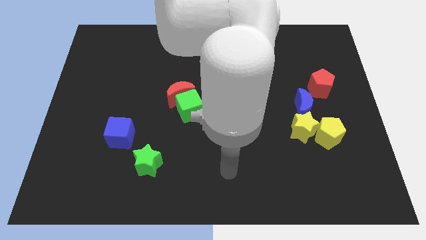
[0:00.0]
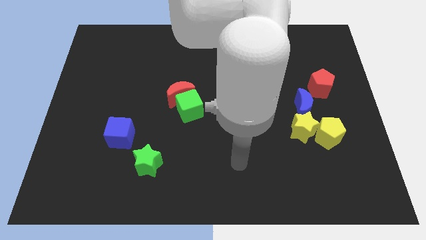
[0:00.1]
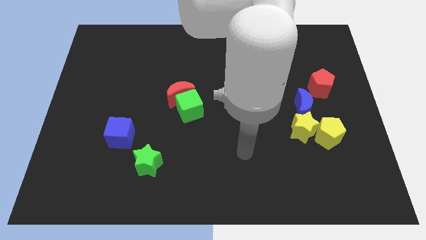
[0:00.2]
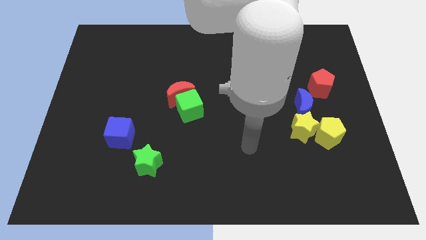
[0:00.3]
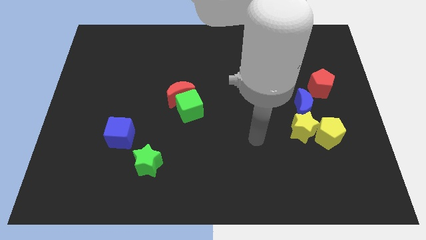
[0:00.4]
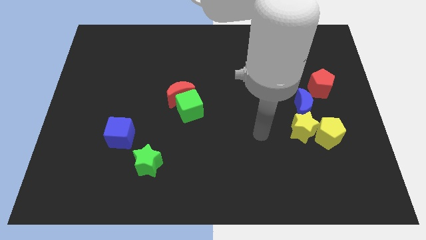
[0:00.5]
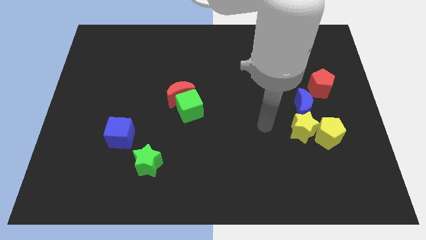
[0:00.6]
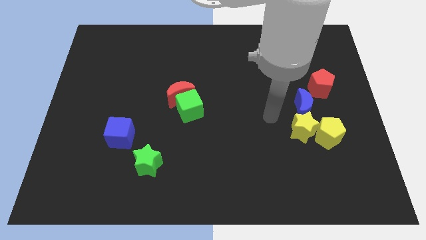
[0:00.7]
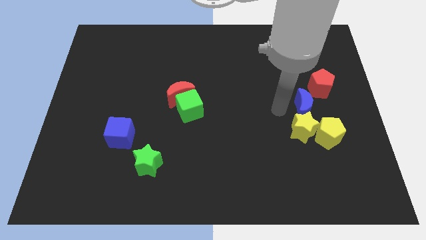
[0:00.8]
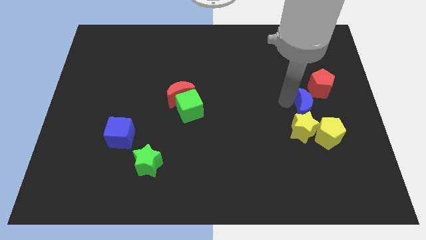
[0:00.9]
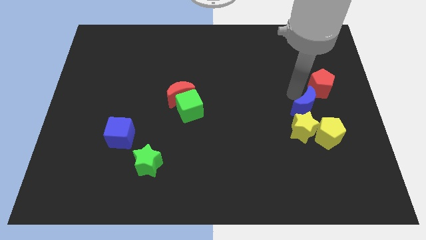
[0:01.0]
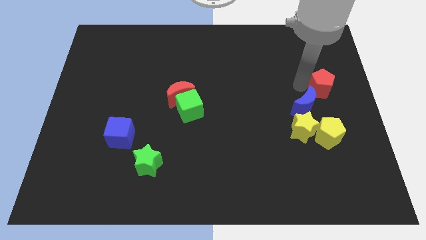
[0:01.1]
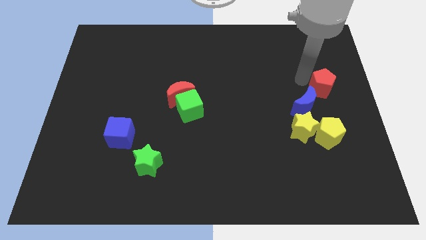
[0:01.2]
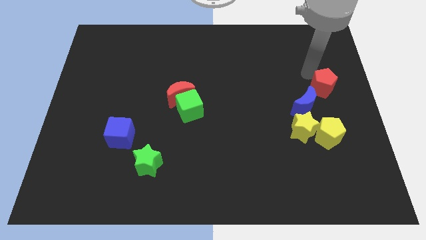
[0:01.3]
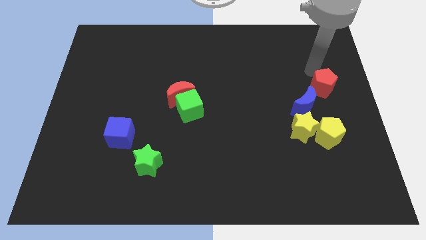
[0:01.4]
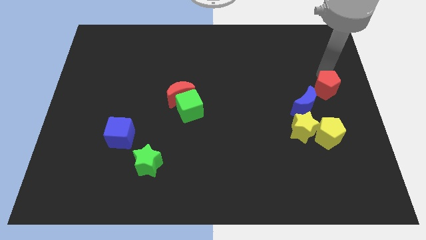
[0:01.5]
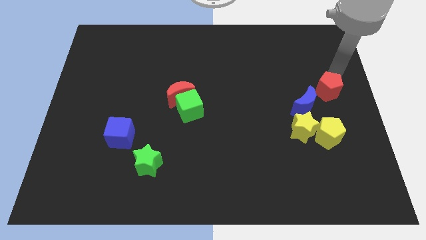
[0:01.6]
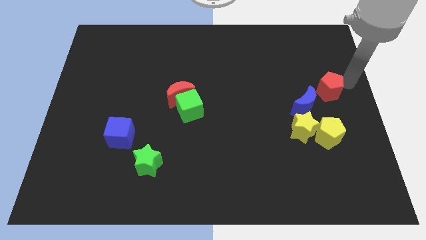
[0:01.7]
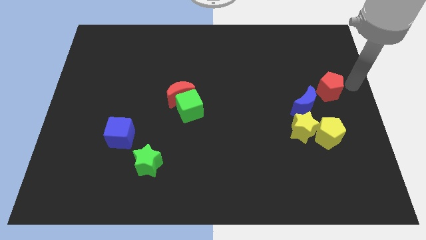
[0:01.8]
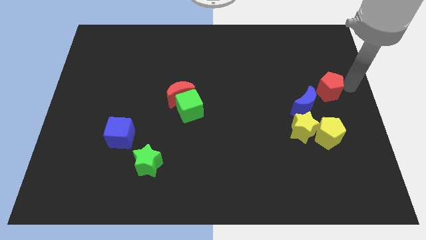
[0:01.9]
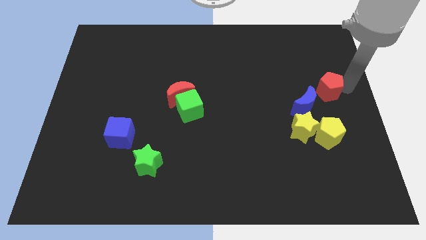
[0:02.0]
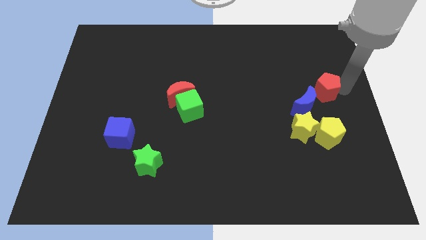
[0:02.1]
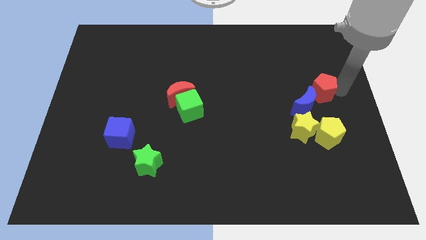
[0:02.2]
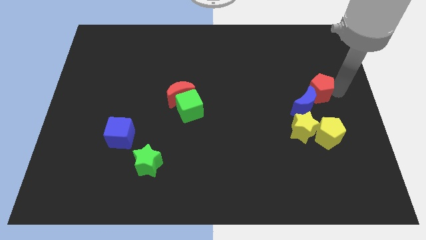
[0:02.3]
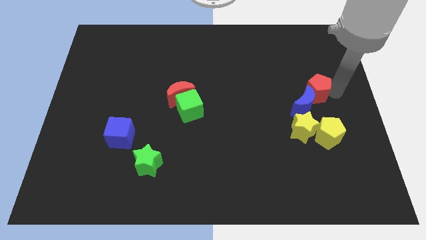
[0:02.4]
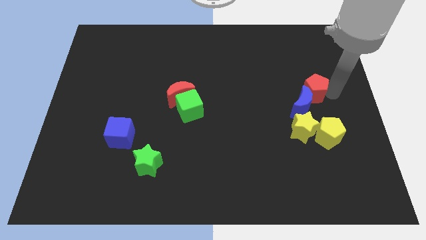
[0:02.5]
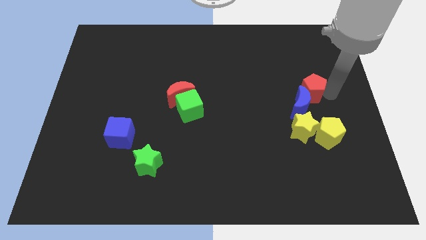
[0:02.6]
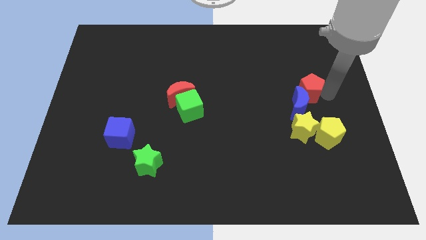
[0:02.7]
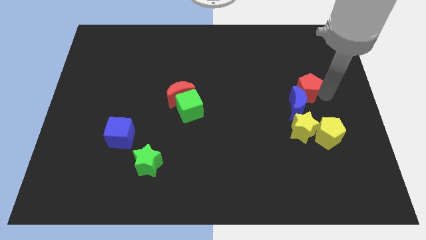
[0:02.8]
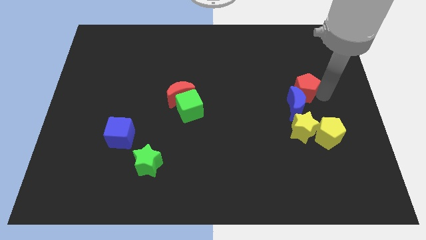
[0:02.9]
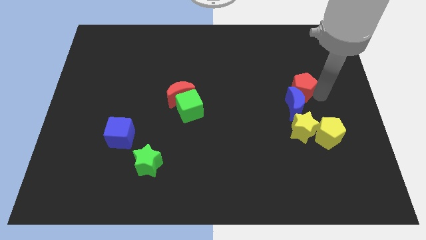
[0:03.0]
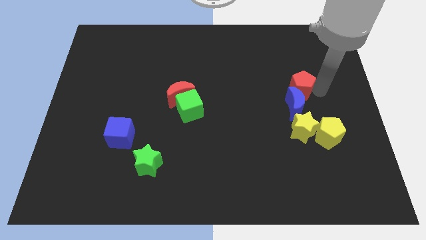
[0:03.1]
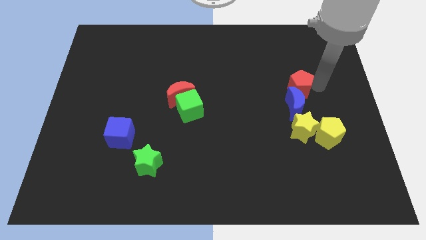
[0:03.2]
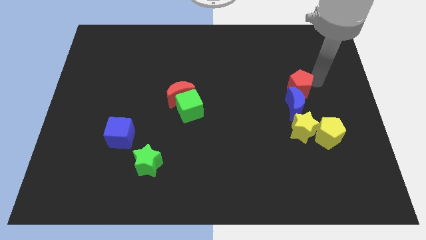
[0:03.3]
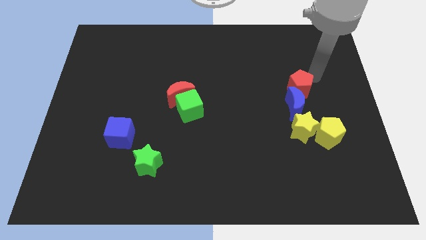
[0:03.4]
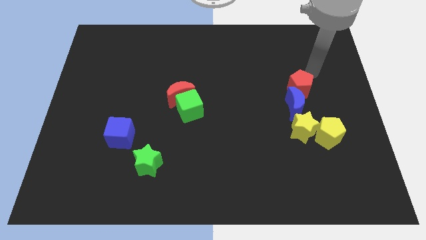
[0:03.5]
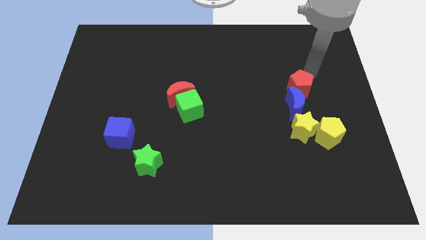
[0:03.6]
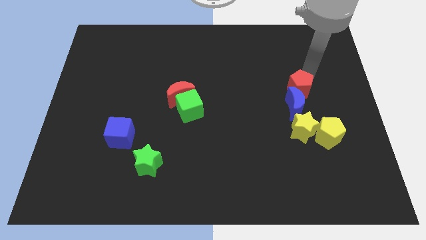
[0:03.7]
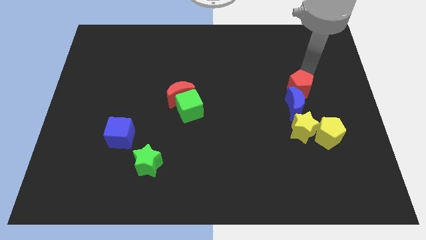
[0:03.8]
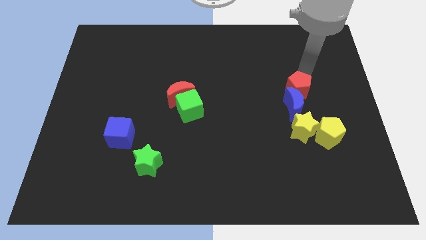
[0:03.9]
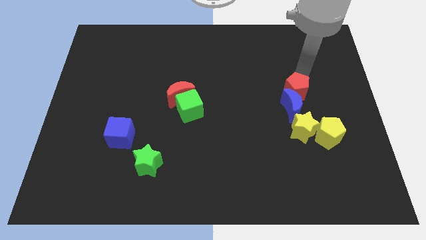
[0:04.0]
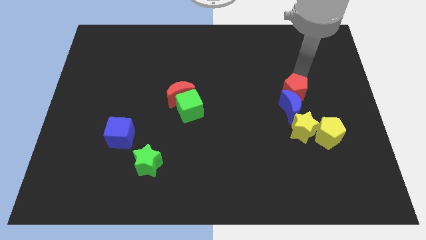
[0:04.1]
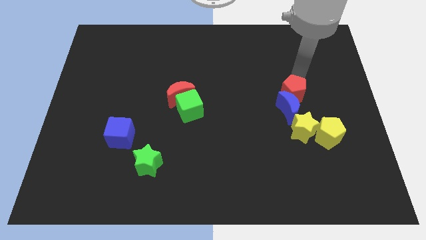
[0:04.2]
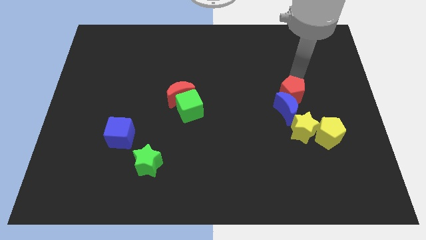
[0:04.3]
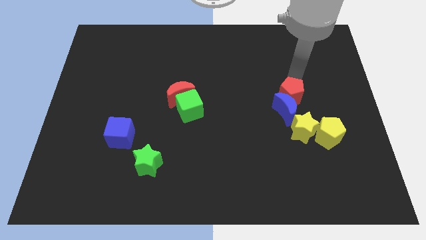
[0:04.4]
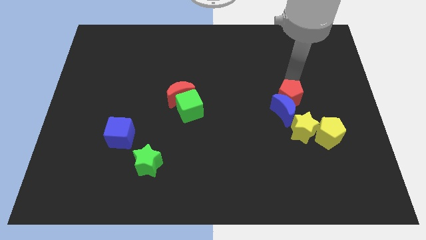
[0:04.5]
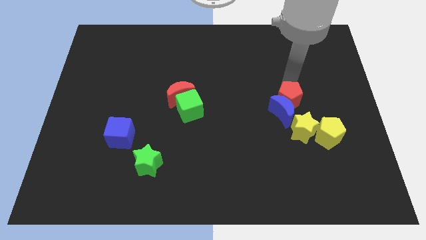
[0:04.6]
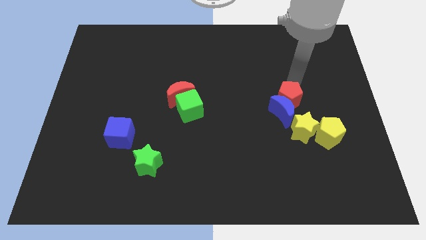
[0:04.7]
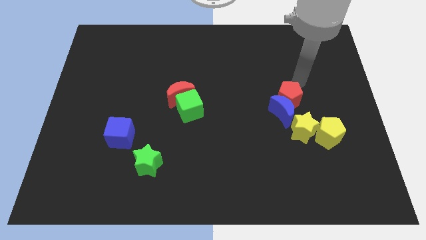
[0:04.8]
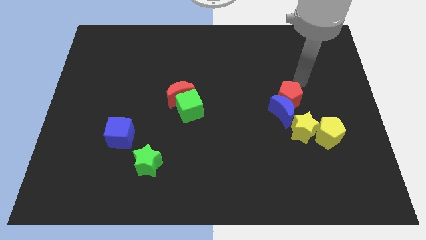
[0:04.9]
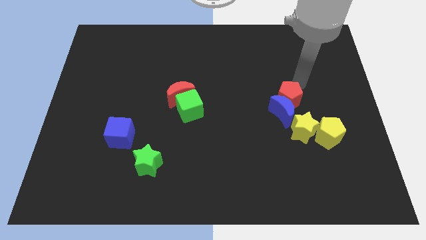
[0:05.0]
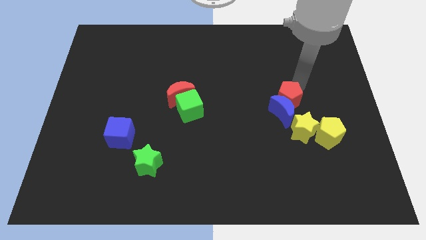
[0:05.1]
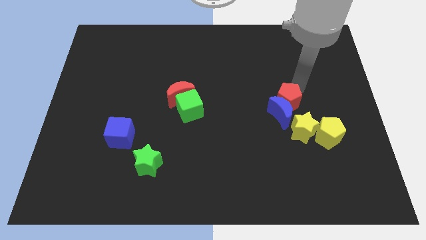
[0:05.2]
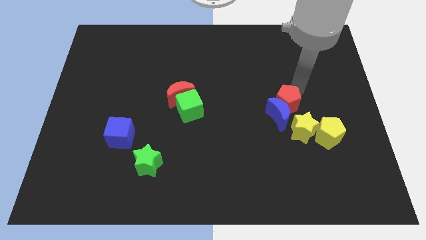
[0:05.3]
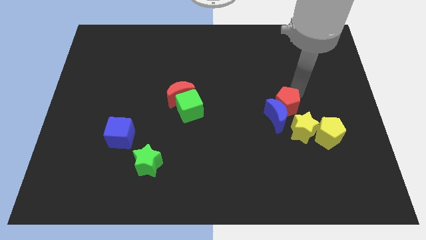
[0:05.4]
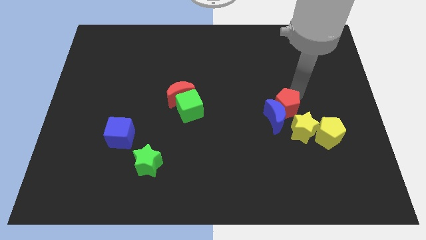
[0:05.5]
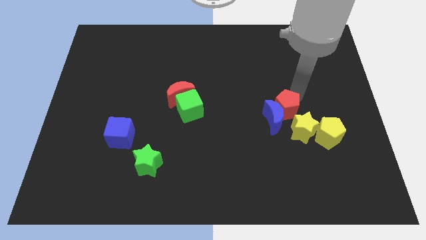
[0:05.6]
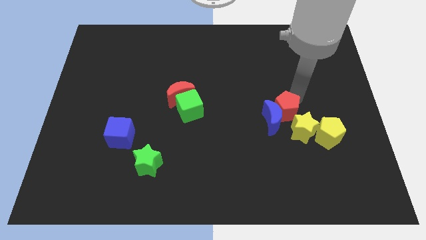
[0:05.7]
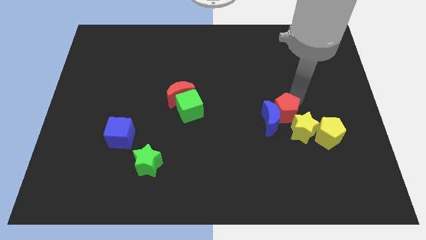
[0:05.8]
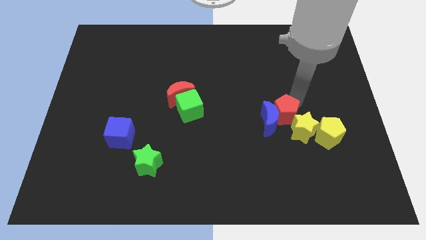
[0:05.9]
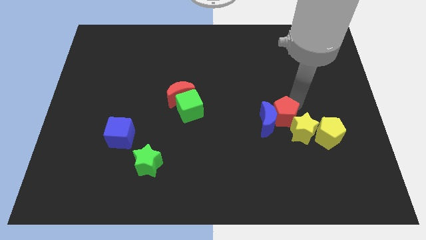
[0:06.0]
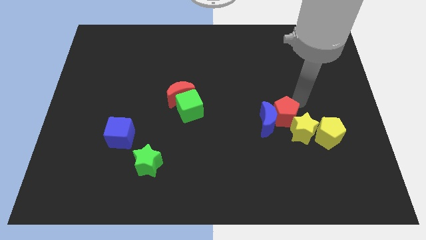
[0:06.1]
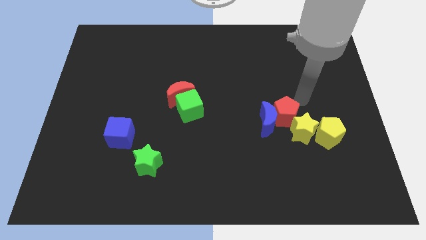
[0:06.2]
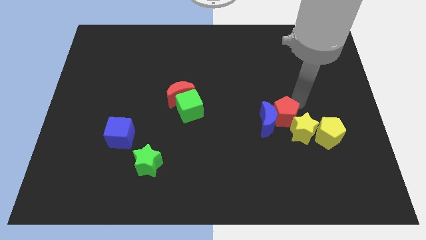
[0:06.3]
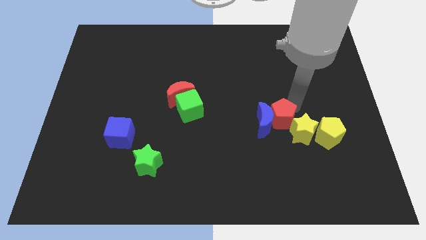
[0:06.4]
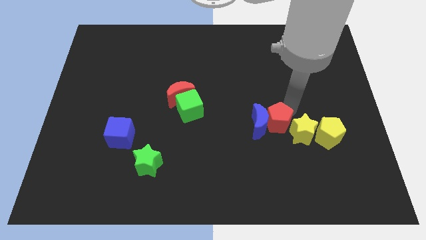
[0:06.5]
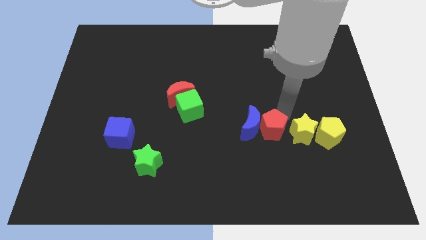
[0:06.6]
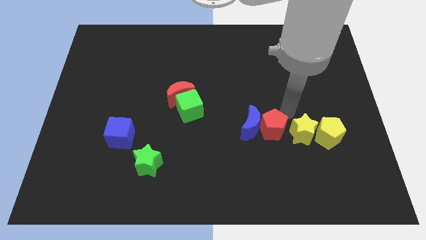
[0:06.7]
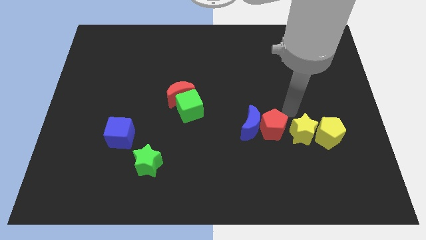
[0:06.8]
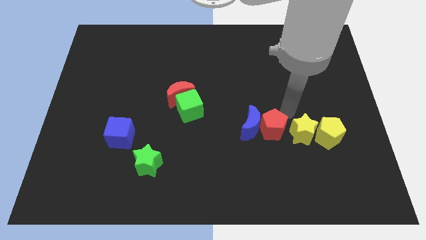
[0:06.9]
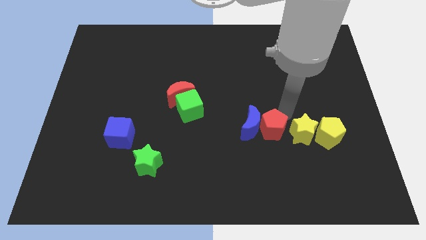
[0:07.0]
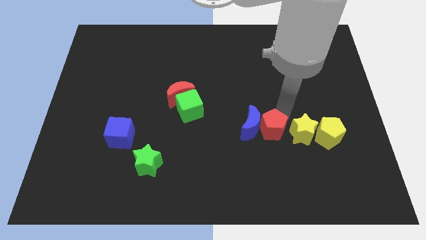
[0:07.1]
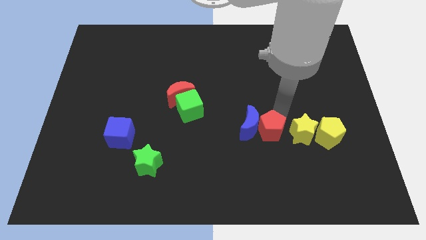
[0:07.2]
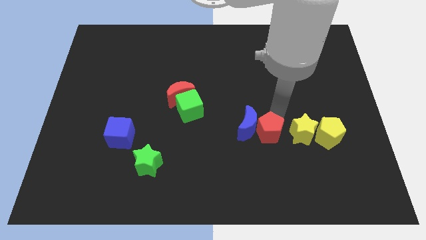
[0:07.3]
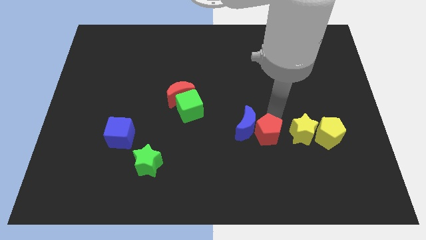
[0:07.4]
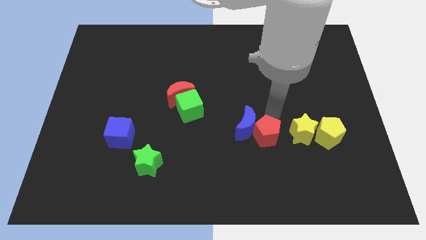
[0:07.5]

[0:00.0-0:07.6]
slide the red pentagon down and left

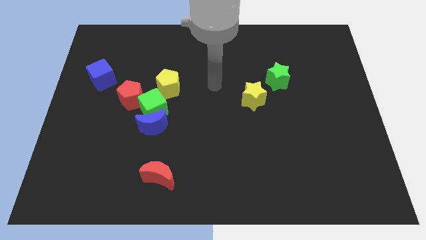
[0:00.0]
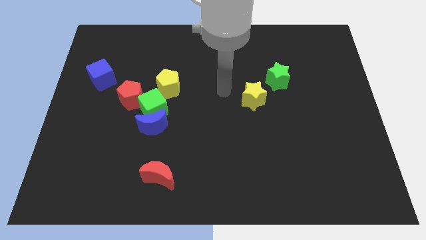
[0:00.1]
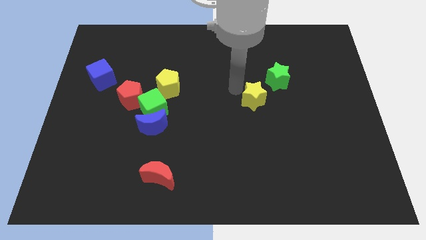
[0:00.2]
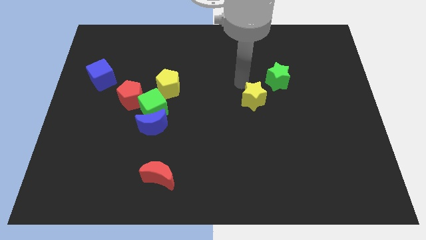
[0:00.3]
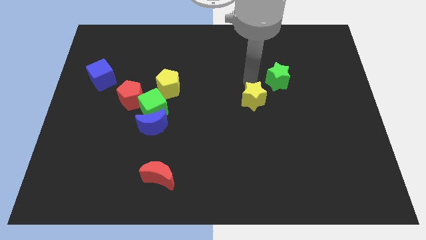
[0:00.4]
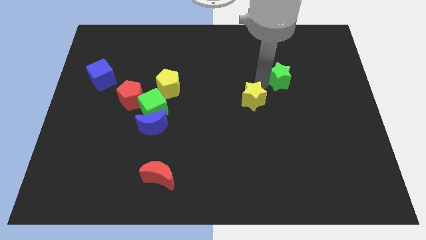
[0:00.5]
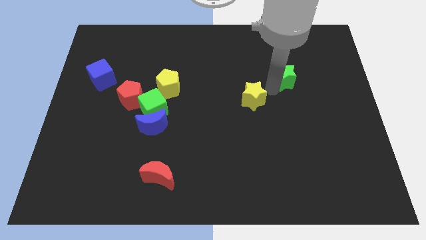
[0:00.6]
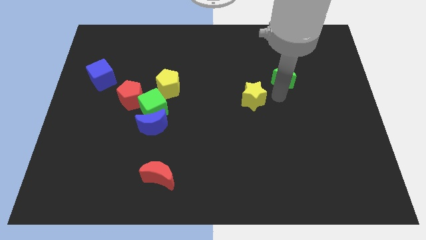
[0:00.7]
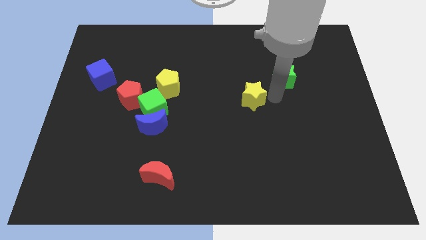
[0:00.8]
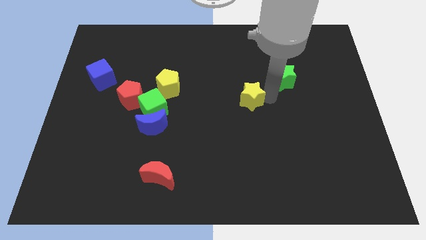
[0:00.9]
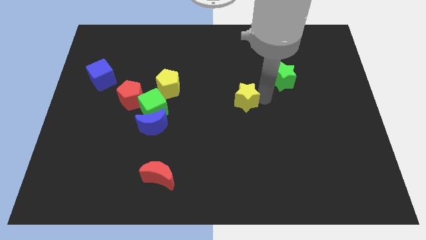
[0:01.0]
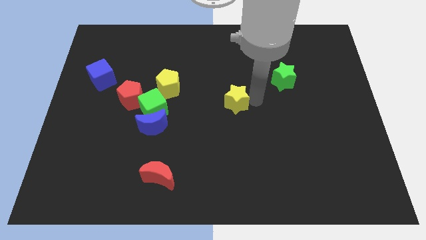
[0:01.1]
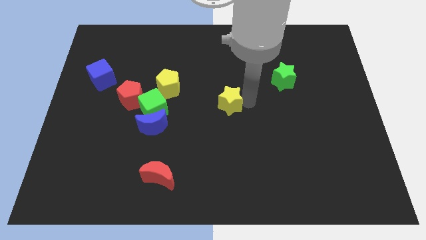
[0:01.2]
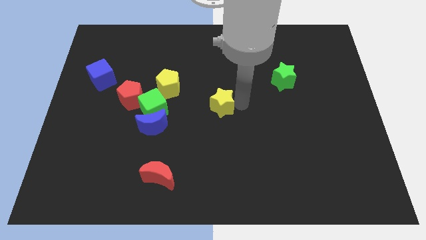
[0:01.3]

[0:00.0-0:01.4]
slide the yellow star left somewhat
